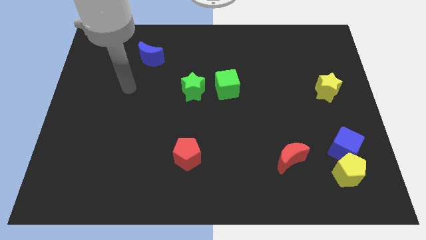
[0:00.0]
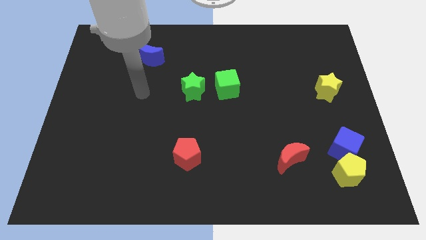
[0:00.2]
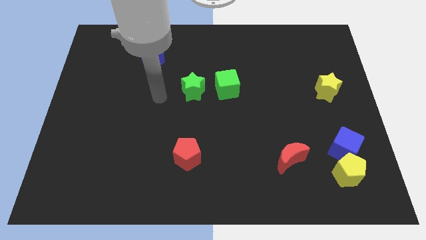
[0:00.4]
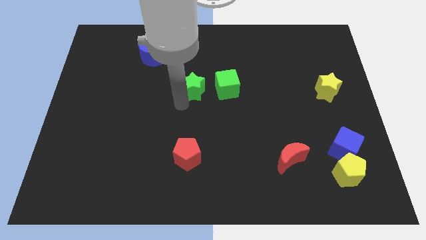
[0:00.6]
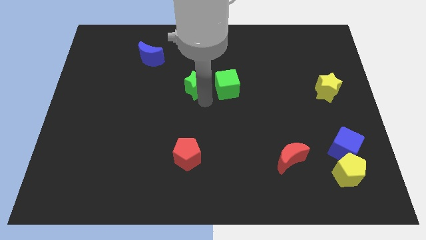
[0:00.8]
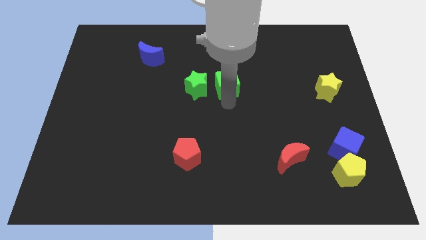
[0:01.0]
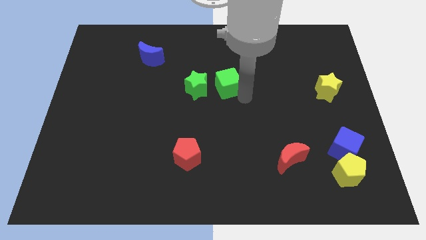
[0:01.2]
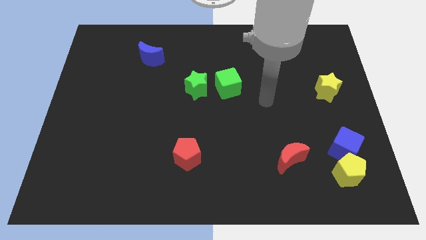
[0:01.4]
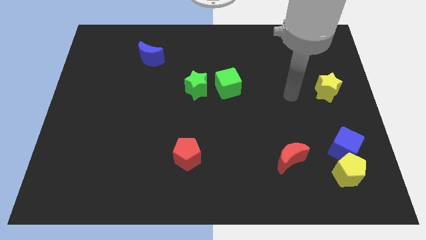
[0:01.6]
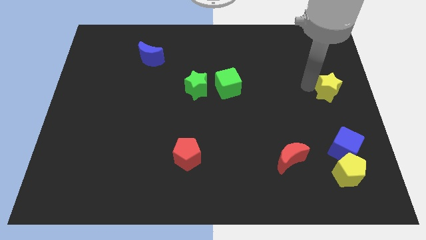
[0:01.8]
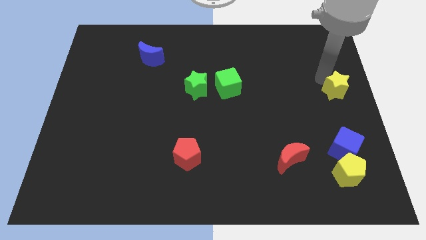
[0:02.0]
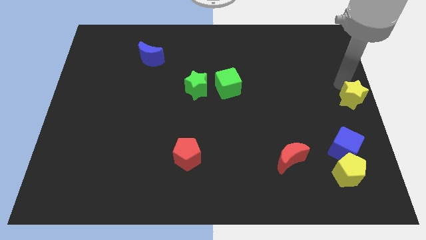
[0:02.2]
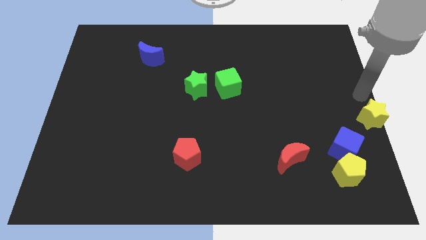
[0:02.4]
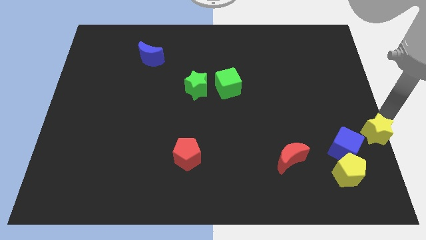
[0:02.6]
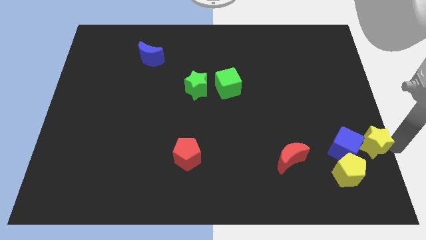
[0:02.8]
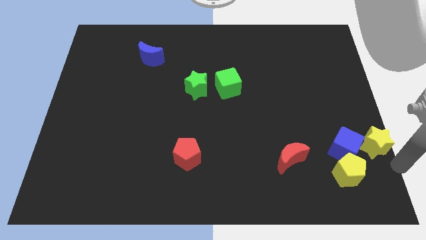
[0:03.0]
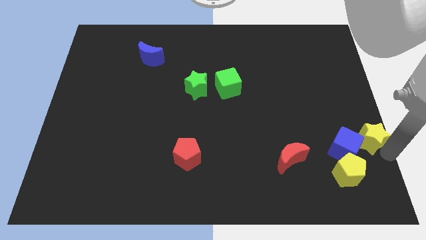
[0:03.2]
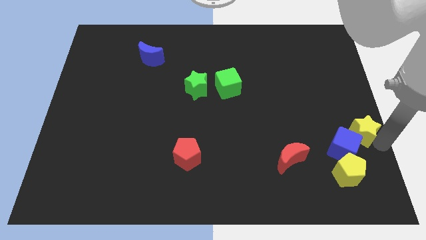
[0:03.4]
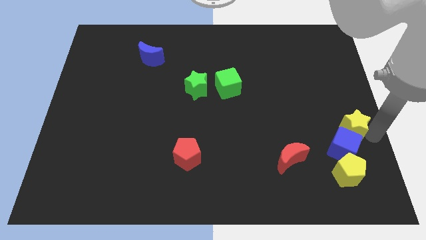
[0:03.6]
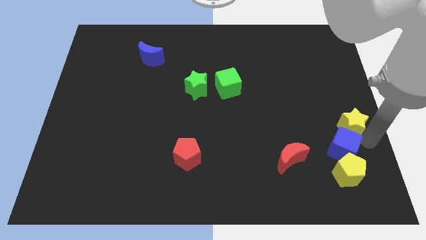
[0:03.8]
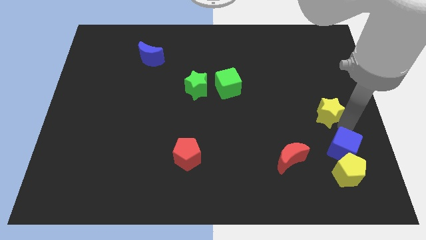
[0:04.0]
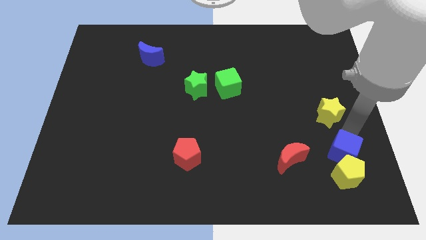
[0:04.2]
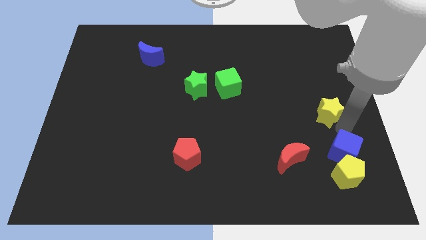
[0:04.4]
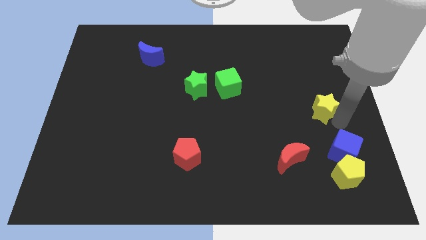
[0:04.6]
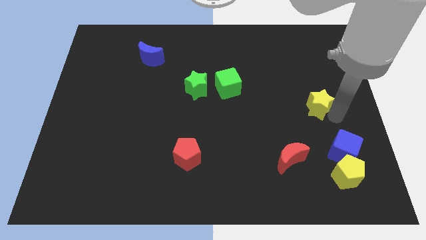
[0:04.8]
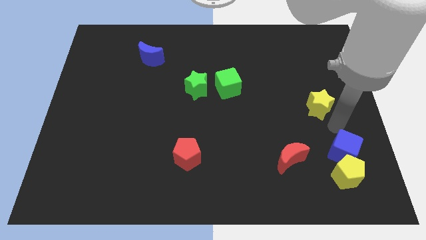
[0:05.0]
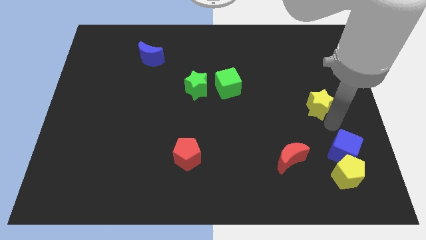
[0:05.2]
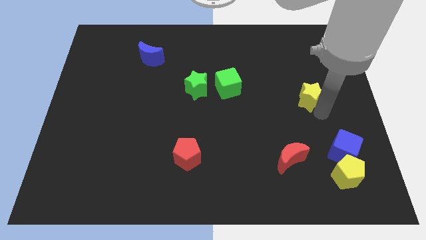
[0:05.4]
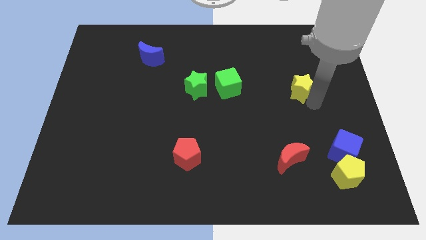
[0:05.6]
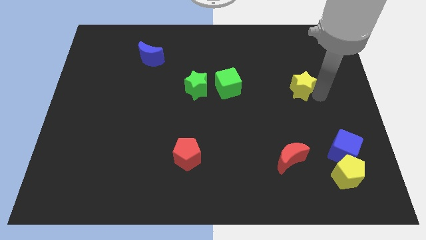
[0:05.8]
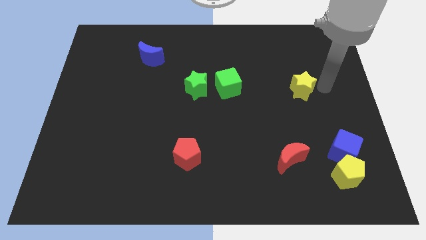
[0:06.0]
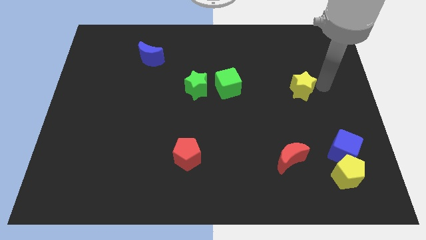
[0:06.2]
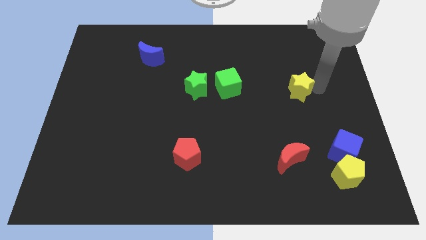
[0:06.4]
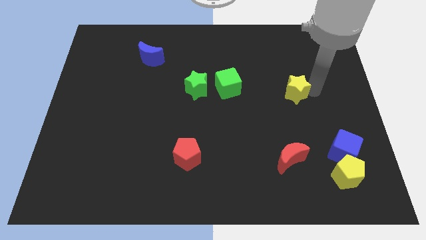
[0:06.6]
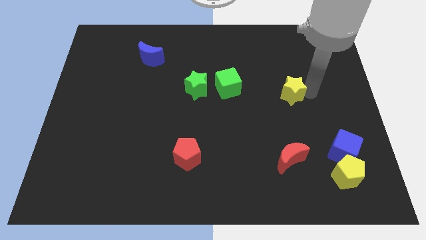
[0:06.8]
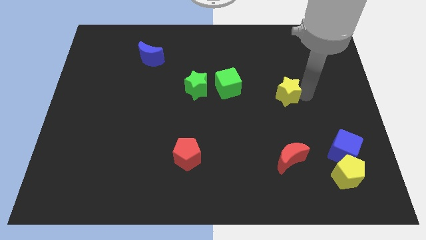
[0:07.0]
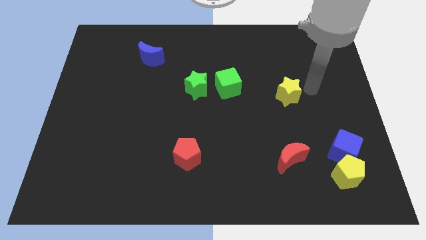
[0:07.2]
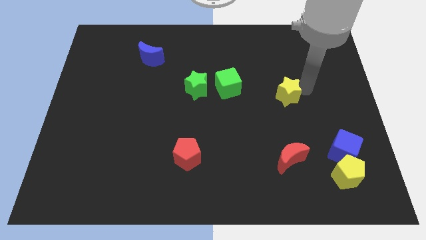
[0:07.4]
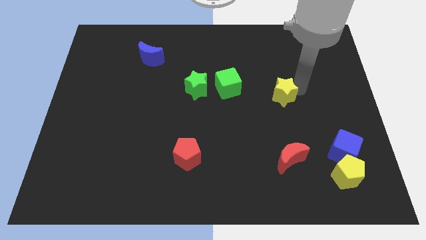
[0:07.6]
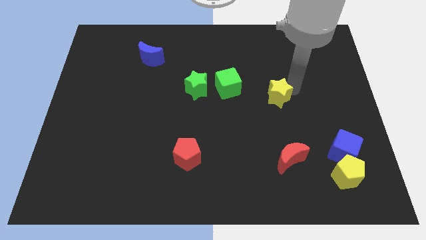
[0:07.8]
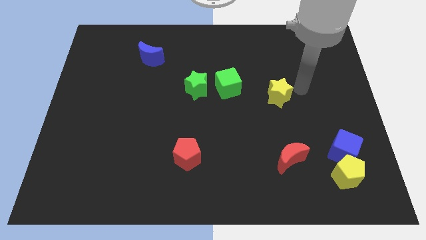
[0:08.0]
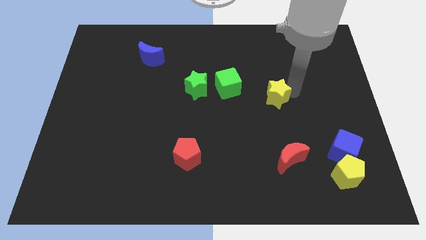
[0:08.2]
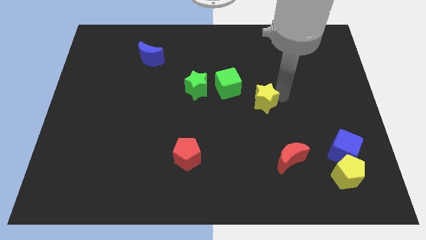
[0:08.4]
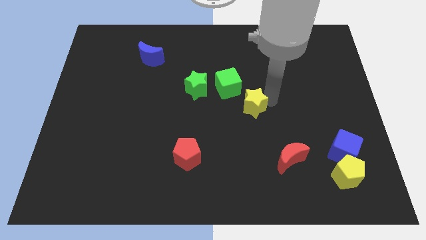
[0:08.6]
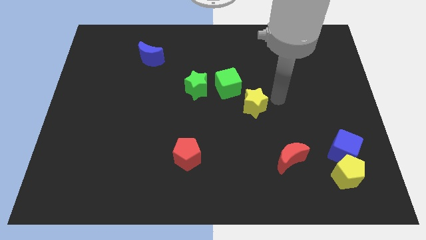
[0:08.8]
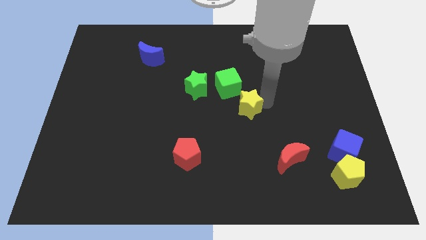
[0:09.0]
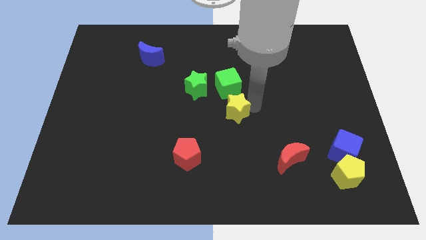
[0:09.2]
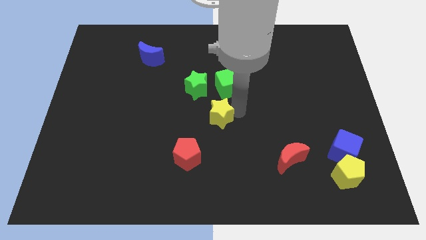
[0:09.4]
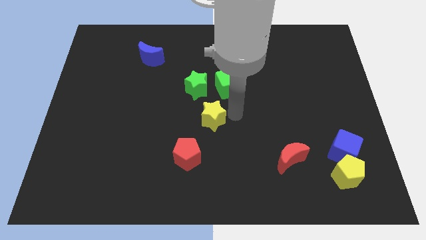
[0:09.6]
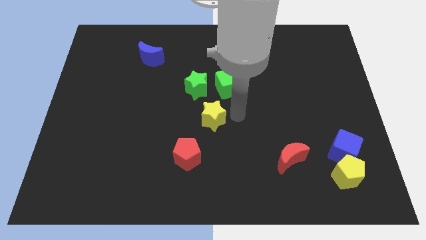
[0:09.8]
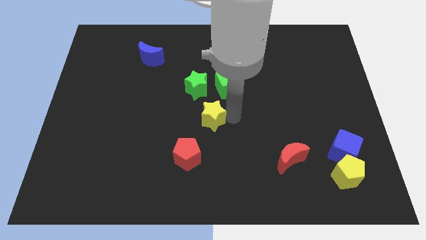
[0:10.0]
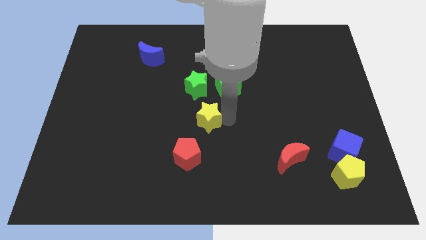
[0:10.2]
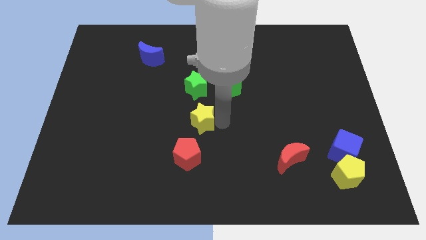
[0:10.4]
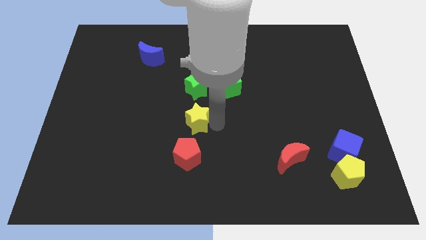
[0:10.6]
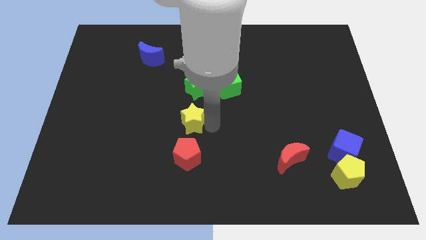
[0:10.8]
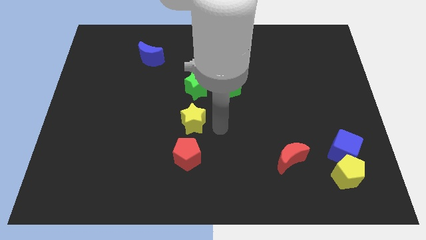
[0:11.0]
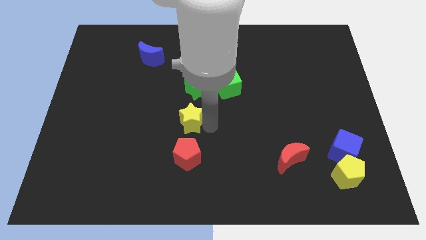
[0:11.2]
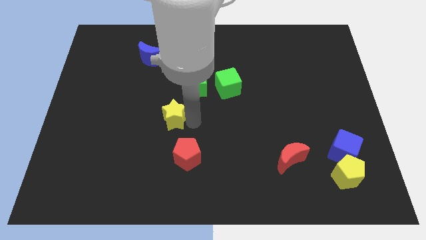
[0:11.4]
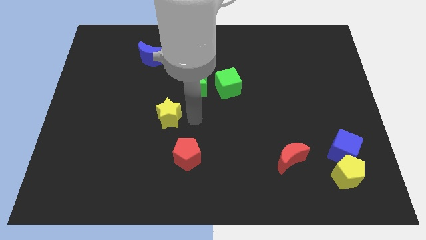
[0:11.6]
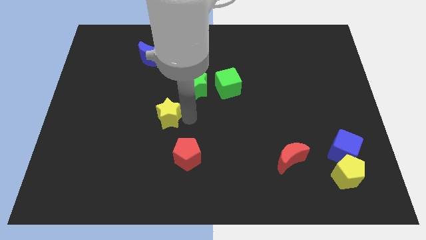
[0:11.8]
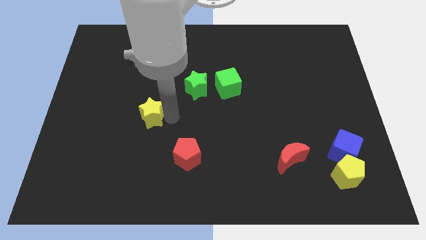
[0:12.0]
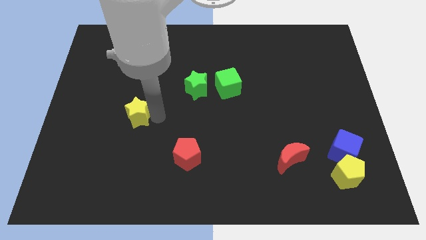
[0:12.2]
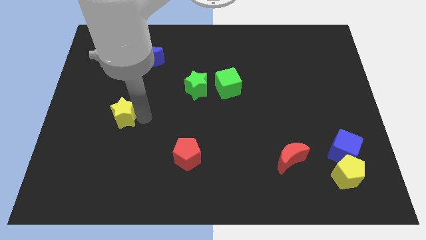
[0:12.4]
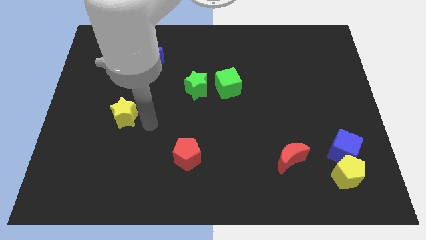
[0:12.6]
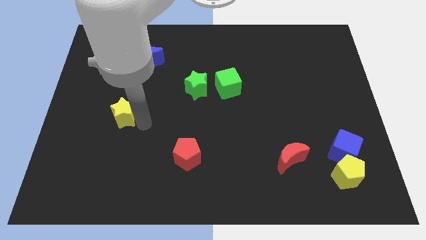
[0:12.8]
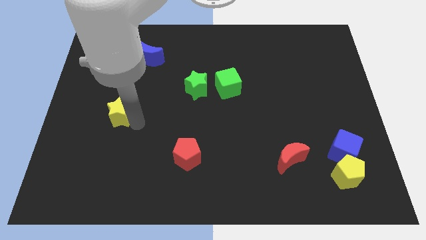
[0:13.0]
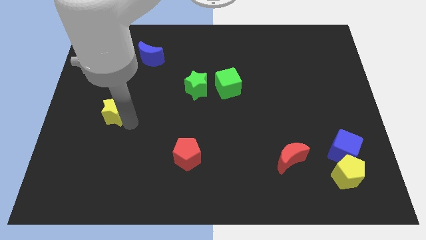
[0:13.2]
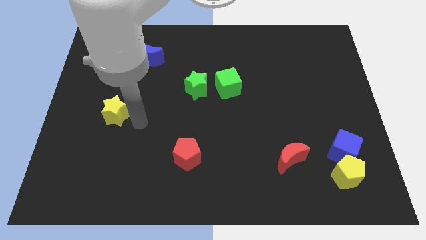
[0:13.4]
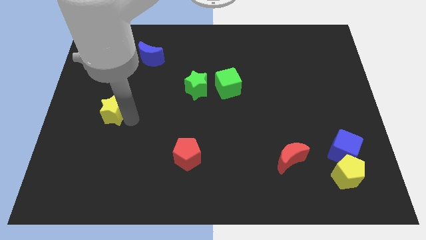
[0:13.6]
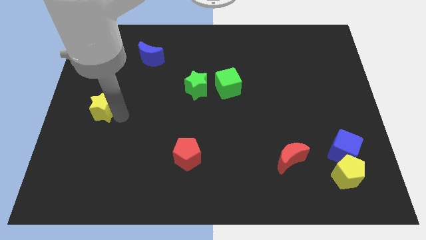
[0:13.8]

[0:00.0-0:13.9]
push the yellow star to the center left
